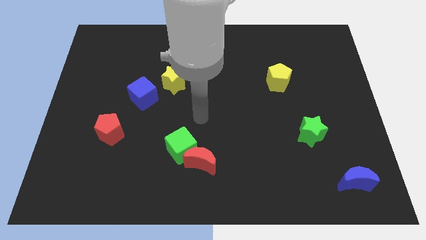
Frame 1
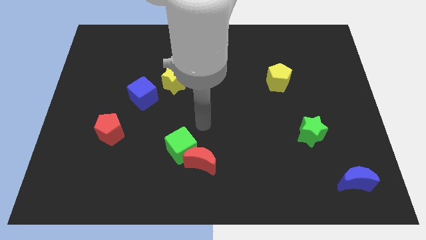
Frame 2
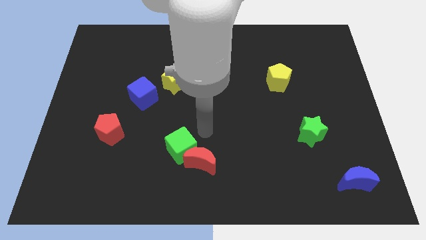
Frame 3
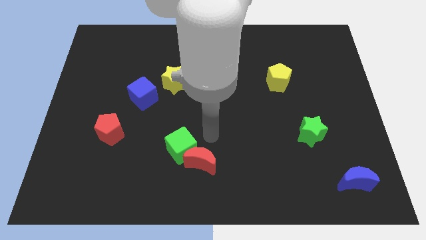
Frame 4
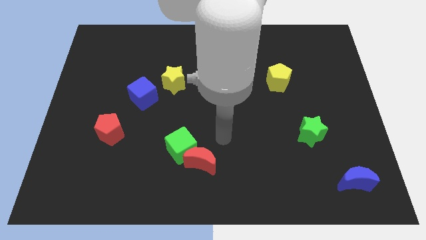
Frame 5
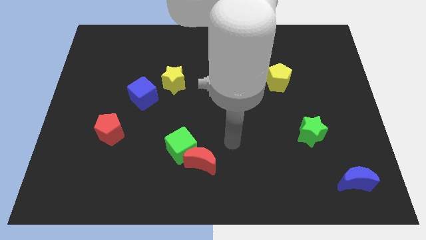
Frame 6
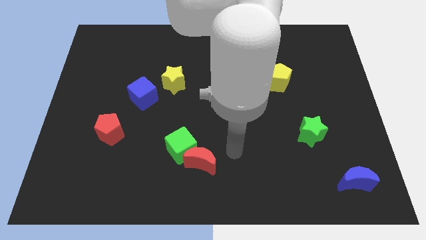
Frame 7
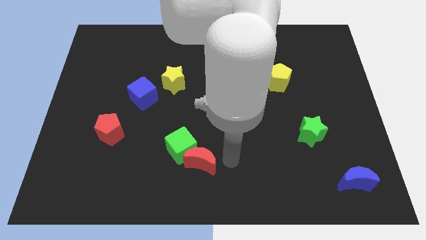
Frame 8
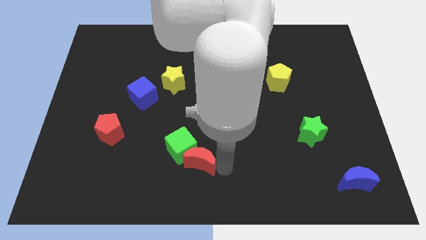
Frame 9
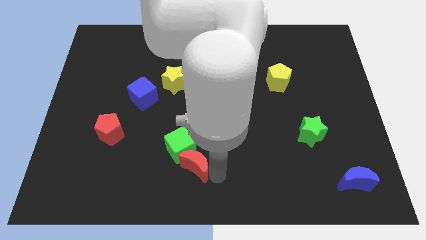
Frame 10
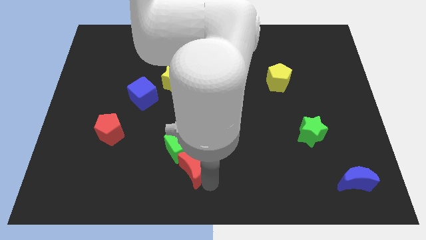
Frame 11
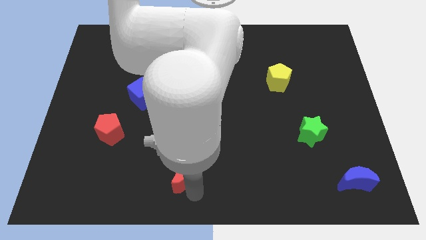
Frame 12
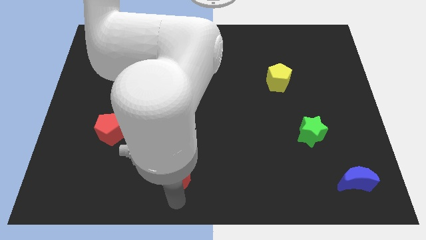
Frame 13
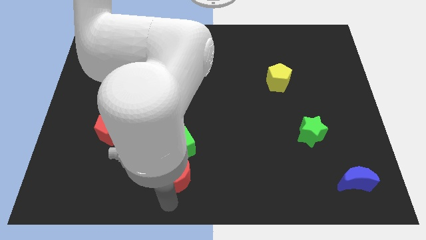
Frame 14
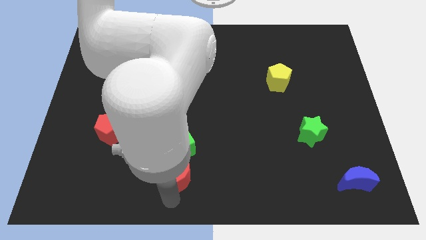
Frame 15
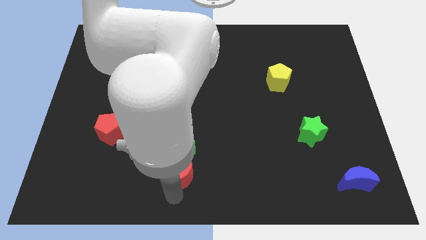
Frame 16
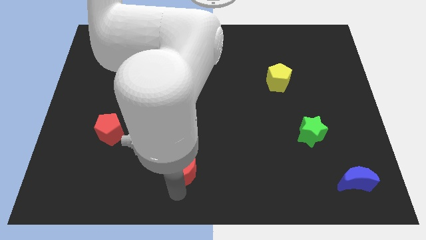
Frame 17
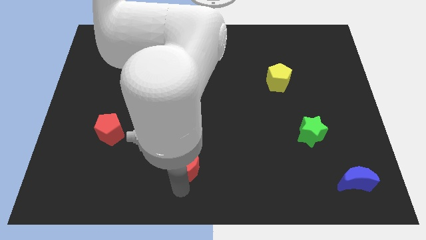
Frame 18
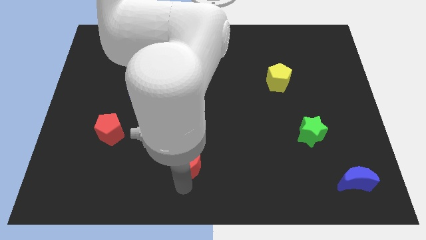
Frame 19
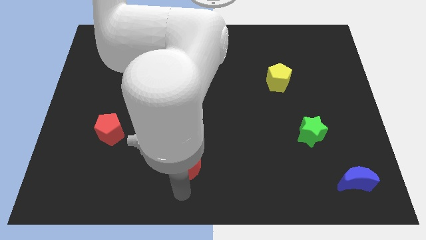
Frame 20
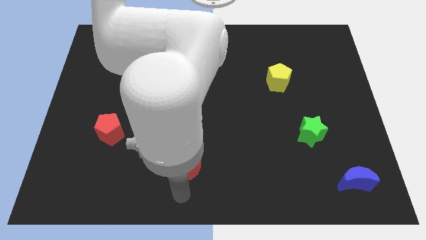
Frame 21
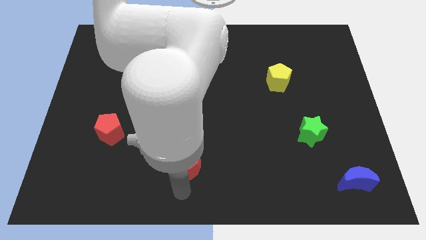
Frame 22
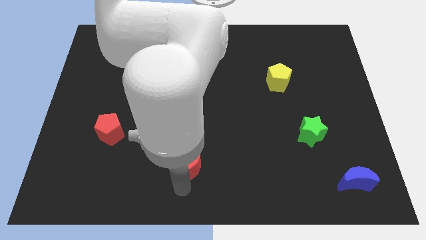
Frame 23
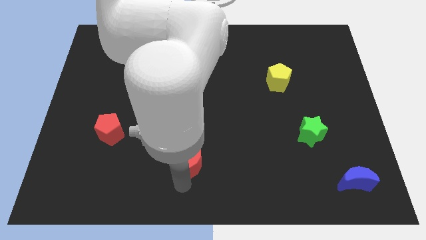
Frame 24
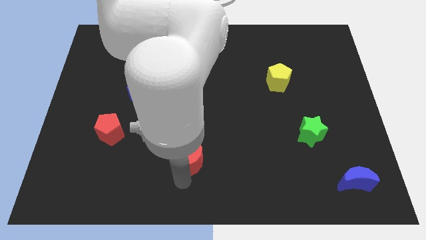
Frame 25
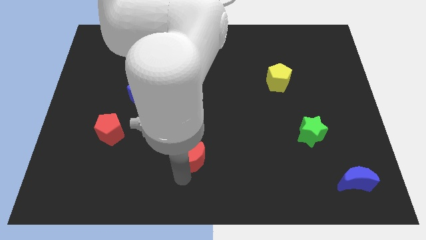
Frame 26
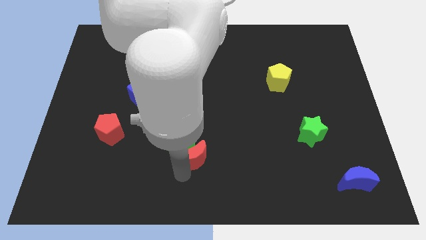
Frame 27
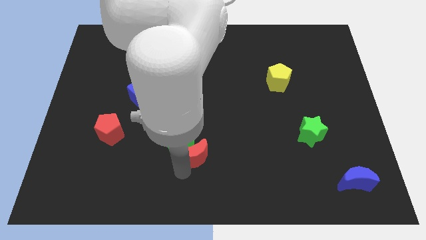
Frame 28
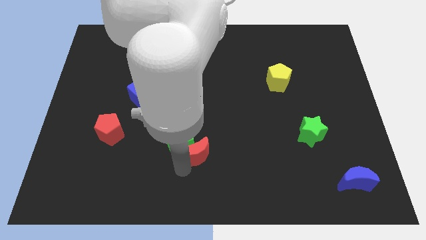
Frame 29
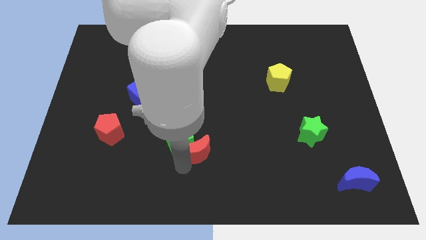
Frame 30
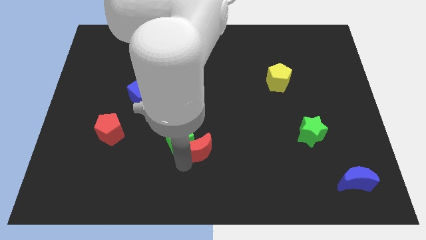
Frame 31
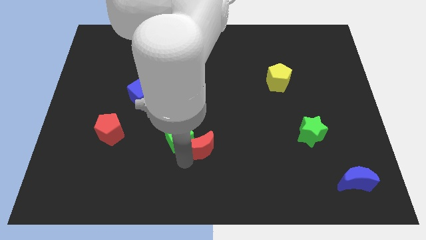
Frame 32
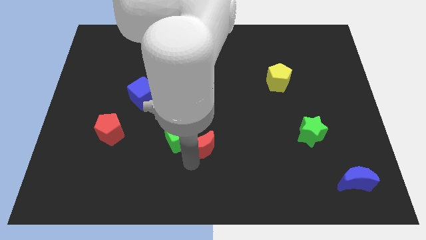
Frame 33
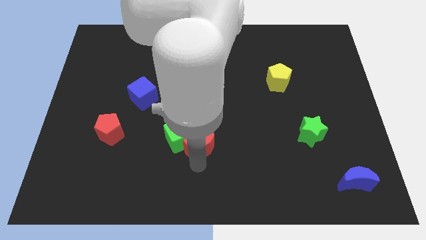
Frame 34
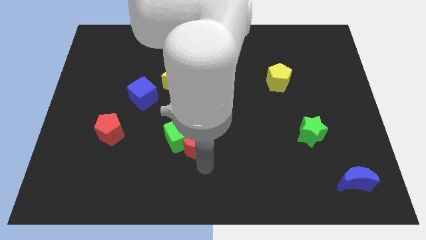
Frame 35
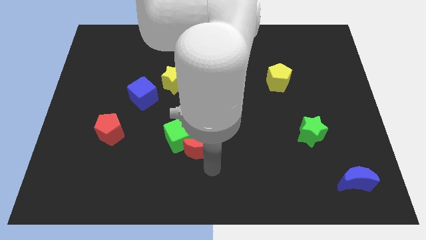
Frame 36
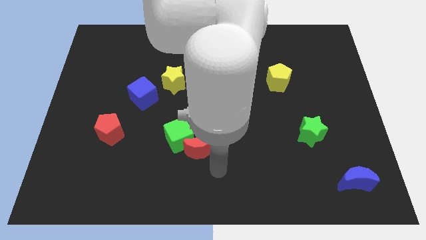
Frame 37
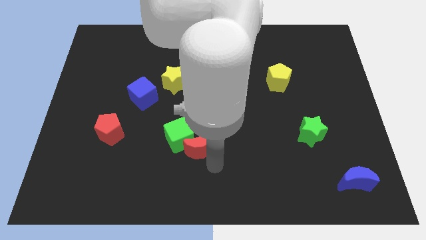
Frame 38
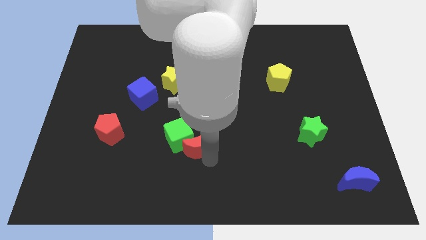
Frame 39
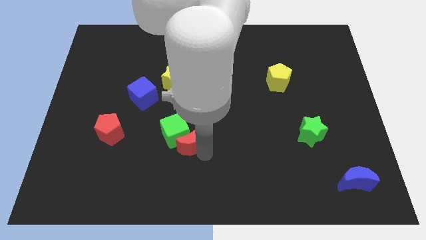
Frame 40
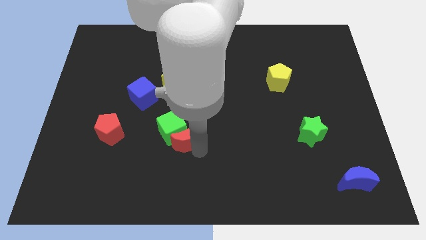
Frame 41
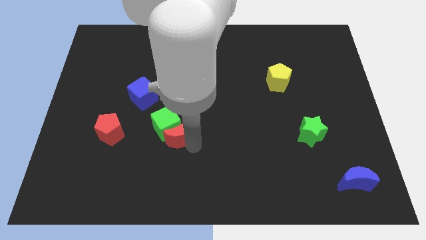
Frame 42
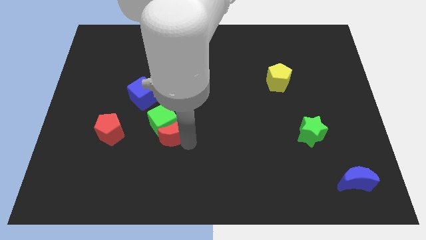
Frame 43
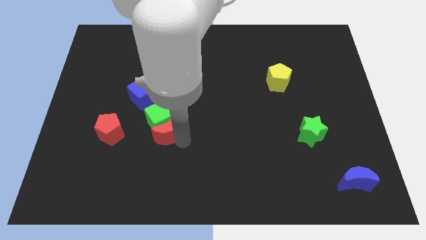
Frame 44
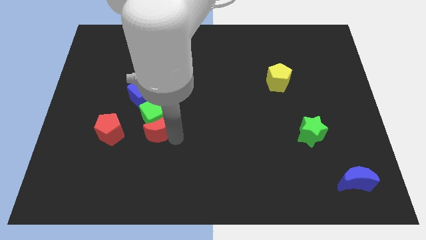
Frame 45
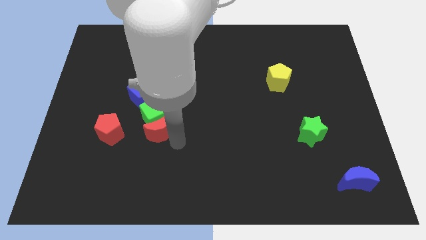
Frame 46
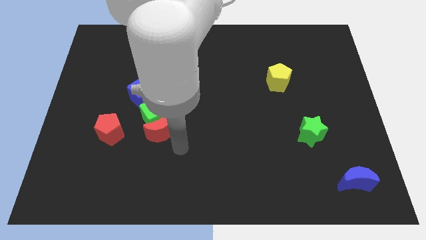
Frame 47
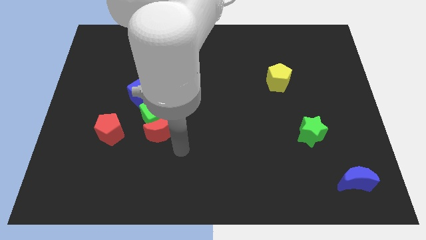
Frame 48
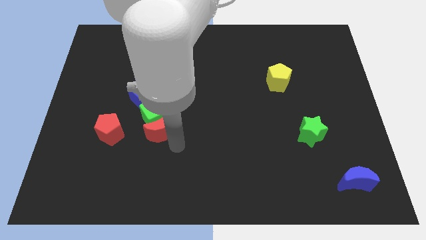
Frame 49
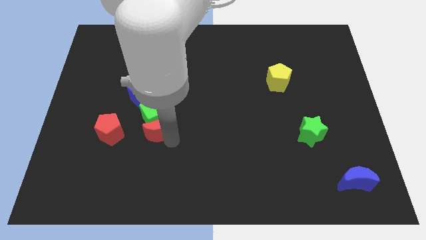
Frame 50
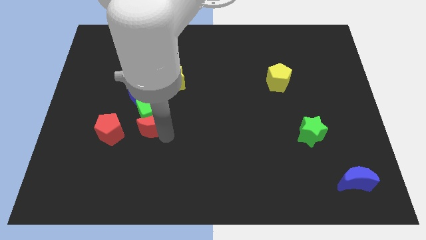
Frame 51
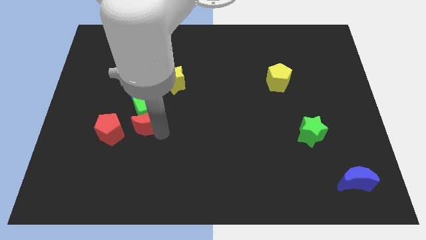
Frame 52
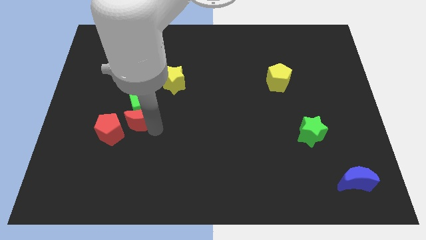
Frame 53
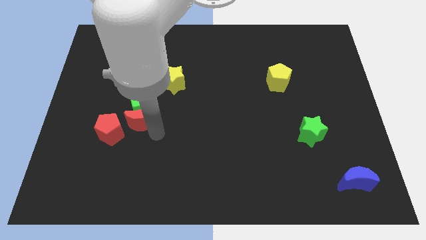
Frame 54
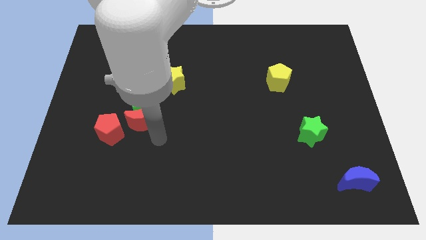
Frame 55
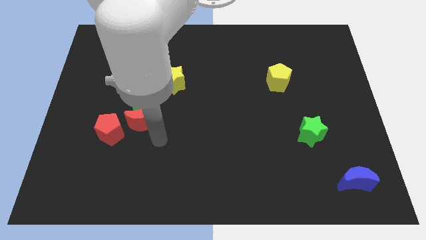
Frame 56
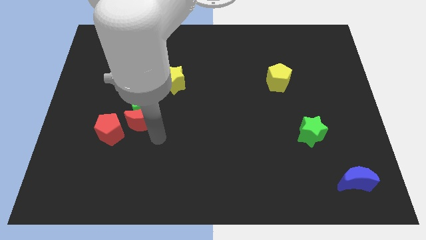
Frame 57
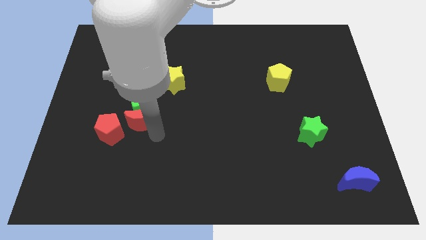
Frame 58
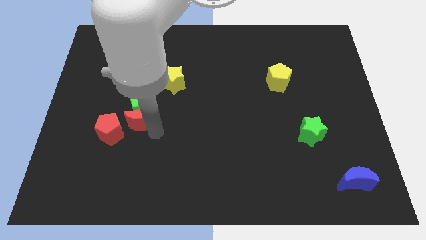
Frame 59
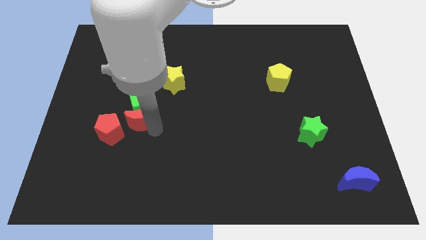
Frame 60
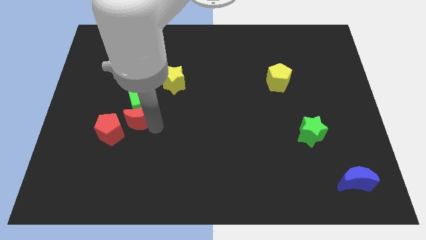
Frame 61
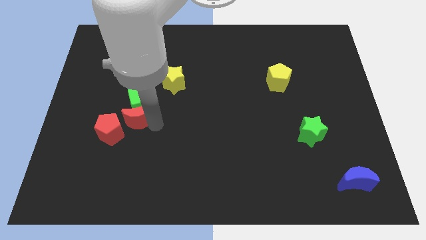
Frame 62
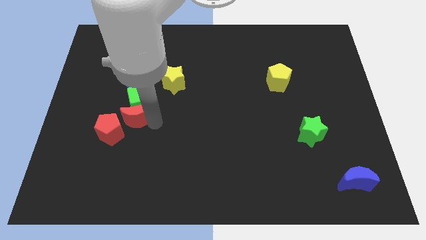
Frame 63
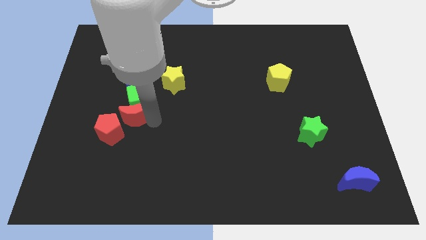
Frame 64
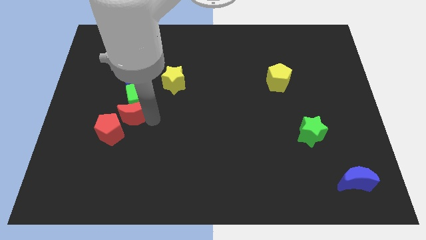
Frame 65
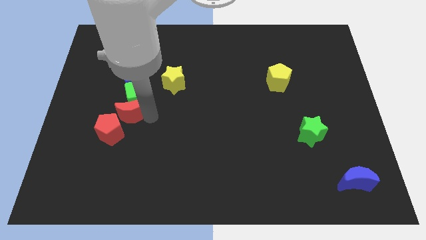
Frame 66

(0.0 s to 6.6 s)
push the red moon up and left

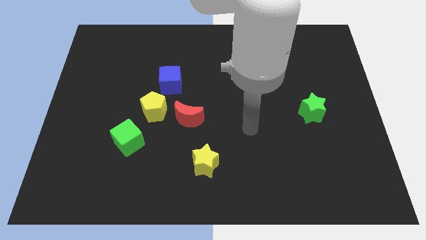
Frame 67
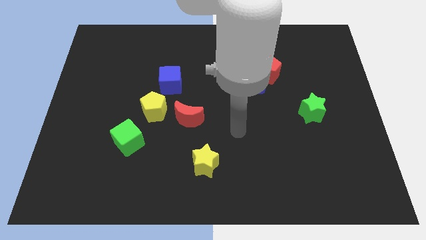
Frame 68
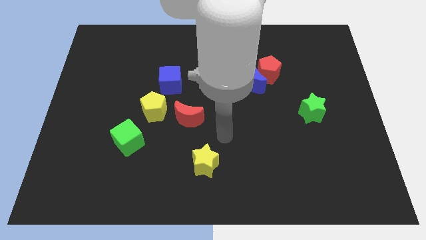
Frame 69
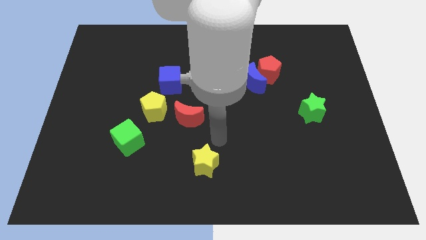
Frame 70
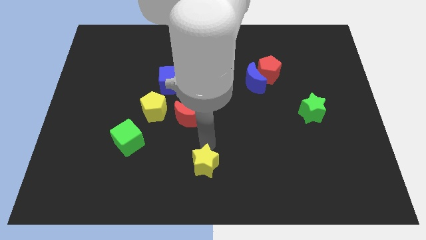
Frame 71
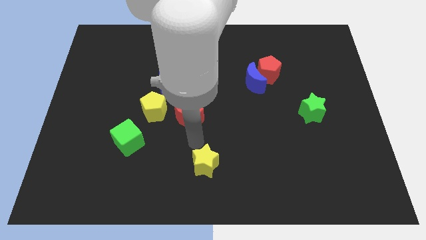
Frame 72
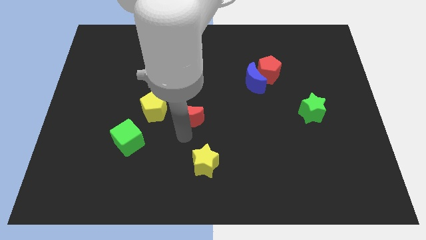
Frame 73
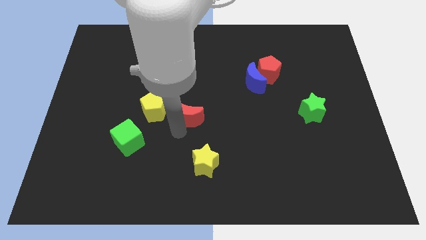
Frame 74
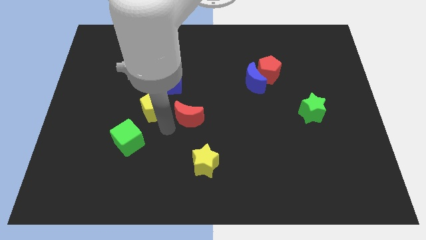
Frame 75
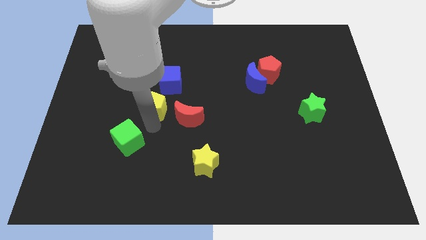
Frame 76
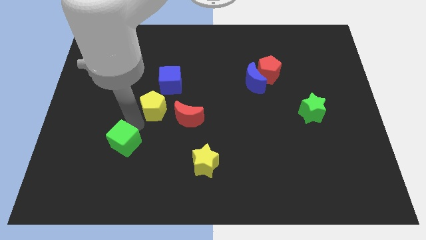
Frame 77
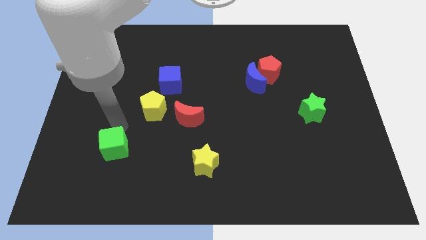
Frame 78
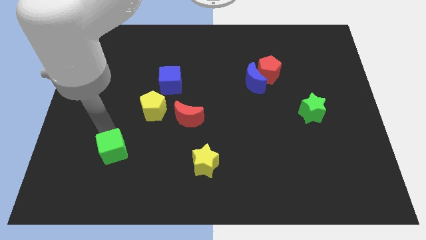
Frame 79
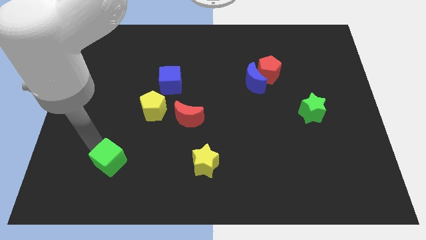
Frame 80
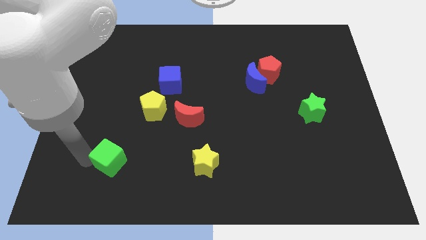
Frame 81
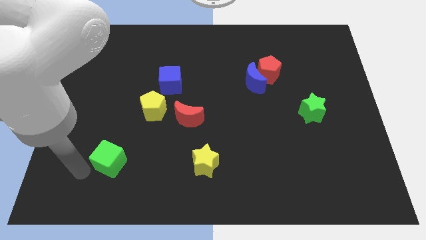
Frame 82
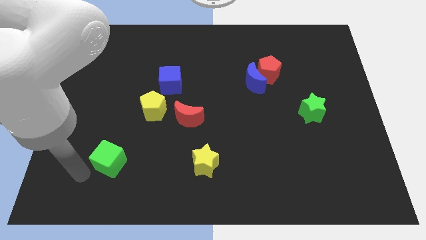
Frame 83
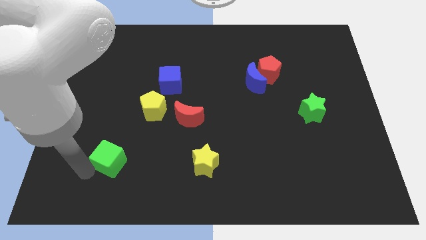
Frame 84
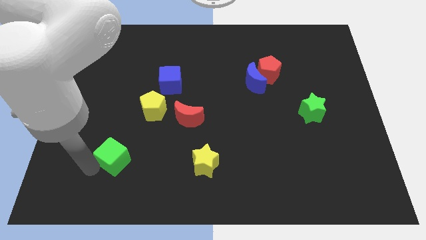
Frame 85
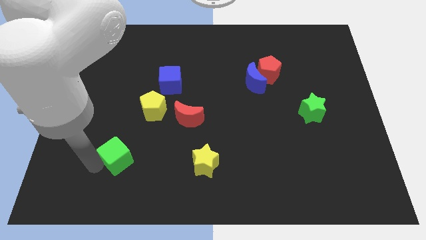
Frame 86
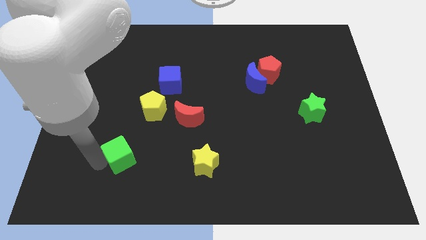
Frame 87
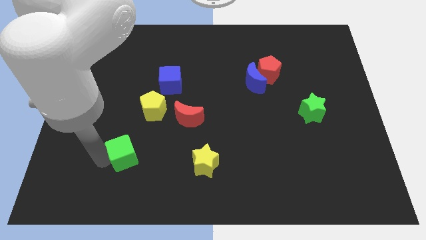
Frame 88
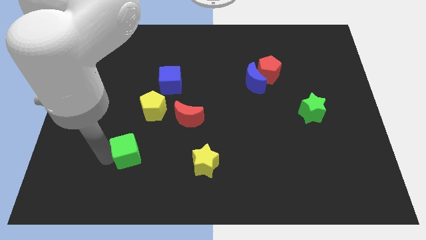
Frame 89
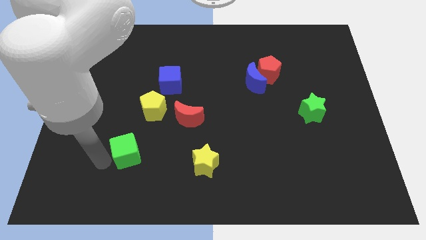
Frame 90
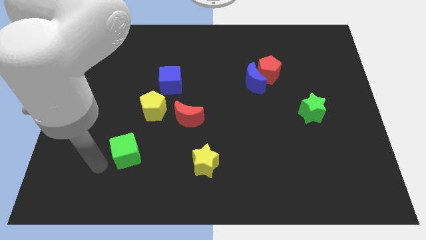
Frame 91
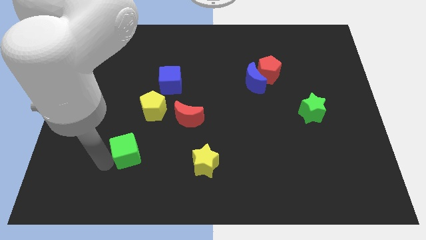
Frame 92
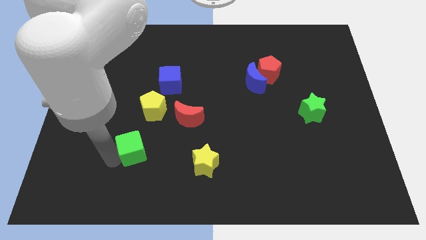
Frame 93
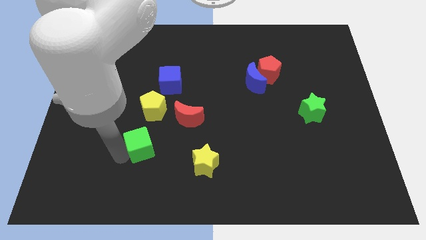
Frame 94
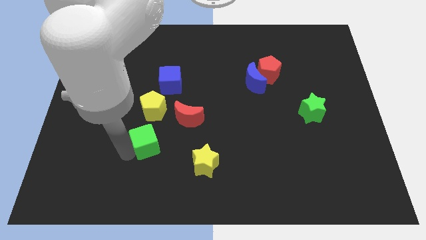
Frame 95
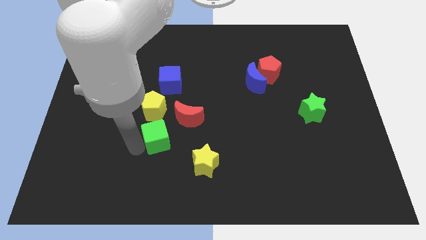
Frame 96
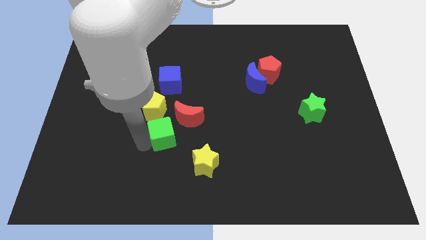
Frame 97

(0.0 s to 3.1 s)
slightly push the green cube to the right
